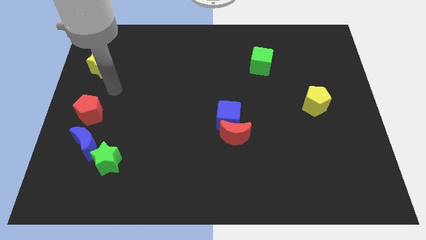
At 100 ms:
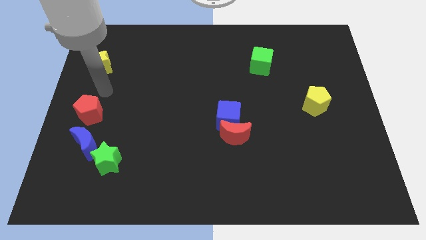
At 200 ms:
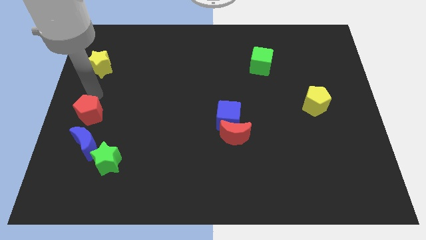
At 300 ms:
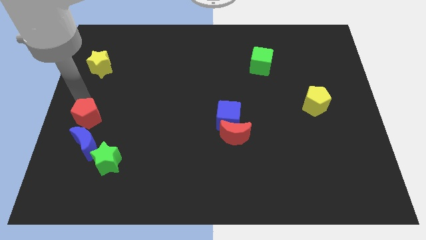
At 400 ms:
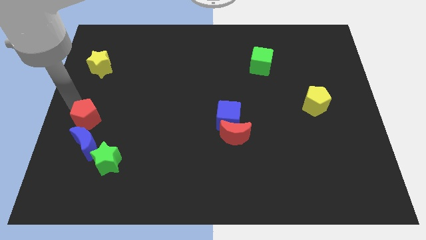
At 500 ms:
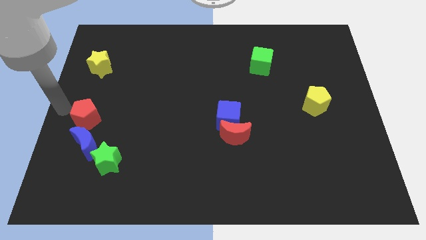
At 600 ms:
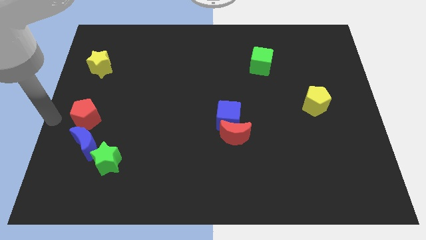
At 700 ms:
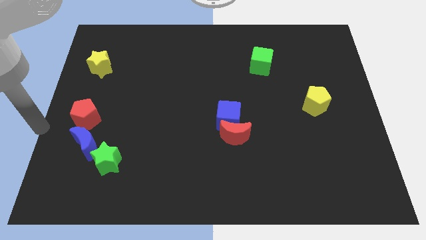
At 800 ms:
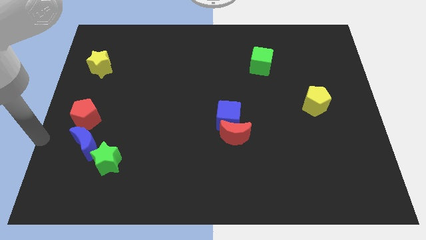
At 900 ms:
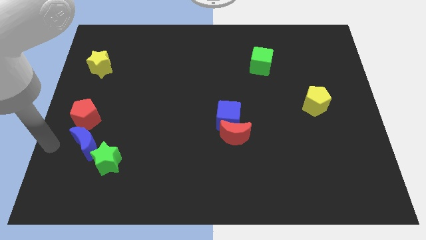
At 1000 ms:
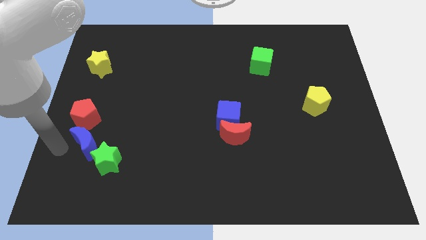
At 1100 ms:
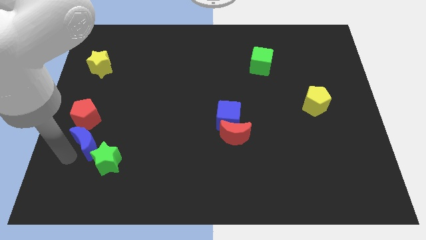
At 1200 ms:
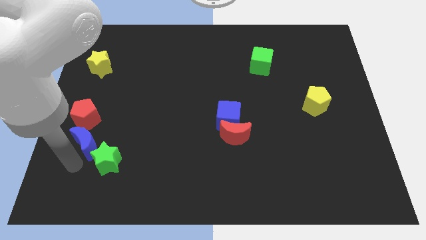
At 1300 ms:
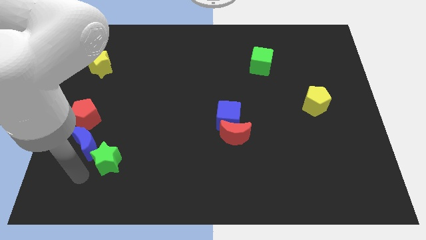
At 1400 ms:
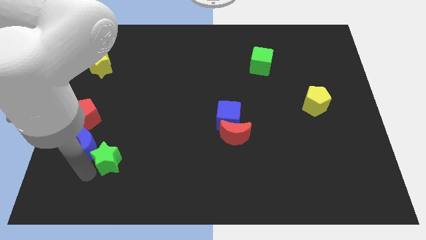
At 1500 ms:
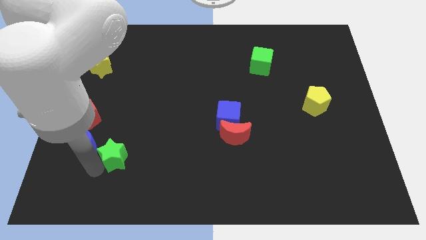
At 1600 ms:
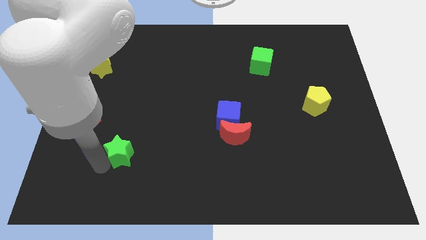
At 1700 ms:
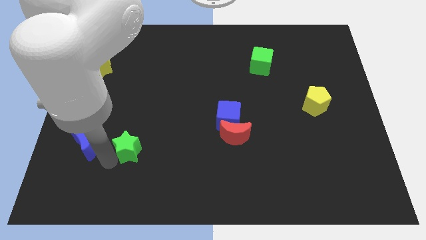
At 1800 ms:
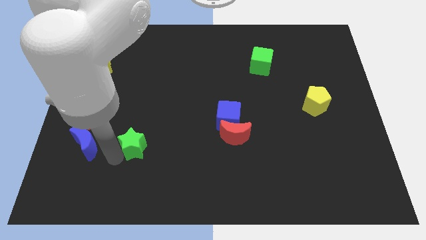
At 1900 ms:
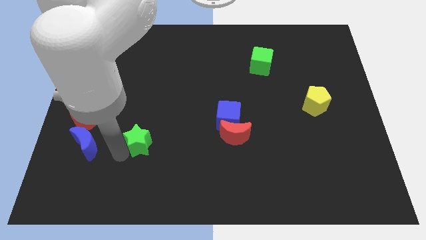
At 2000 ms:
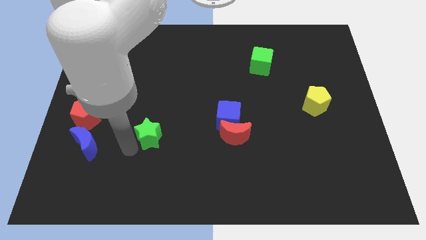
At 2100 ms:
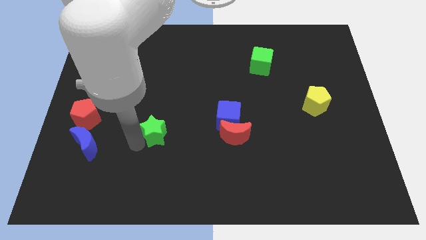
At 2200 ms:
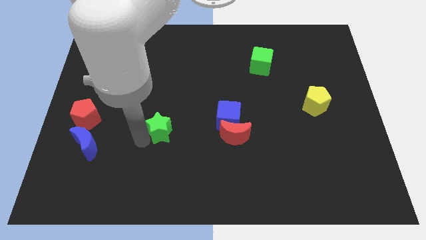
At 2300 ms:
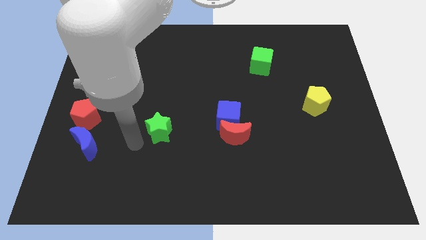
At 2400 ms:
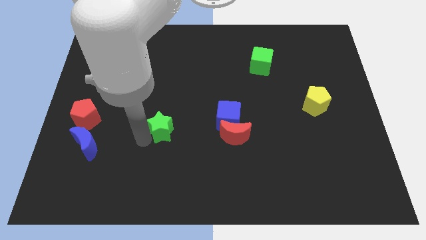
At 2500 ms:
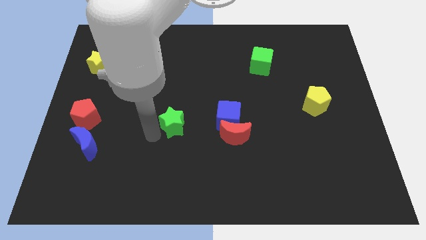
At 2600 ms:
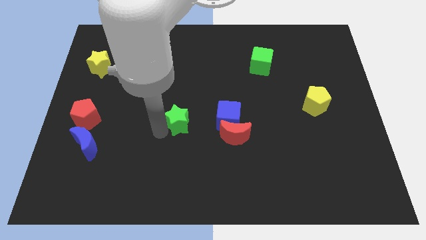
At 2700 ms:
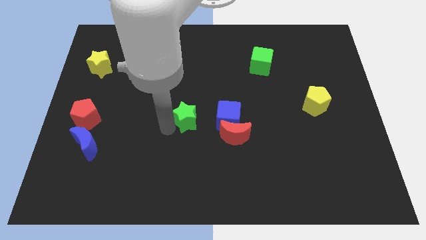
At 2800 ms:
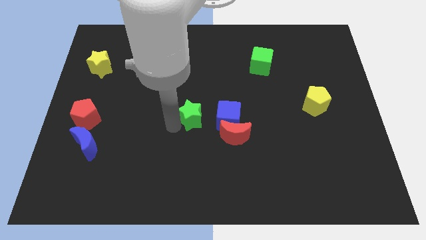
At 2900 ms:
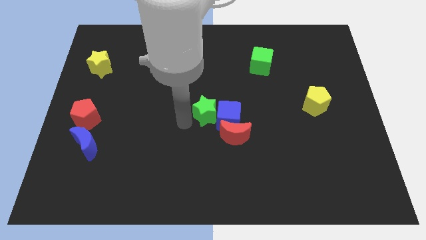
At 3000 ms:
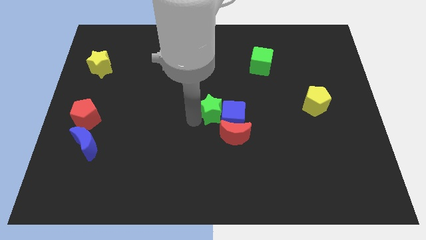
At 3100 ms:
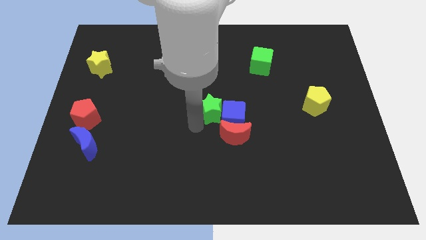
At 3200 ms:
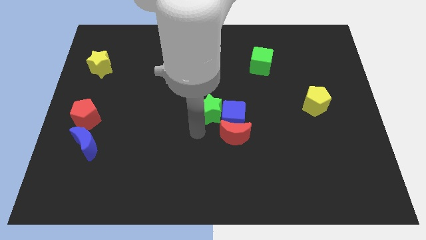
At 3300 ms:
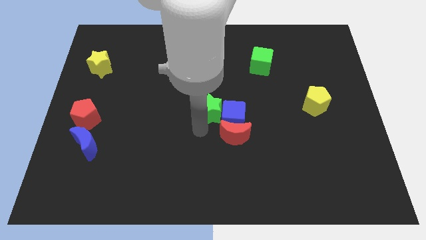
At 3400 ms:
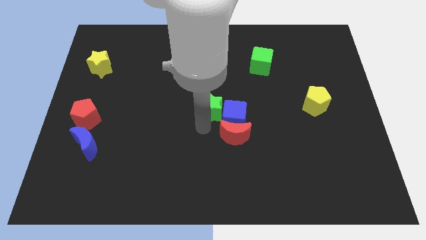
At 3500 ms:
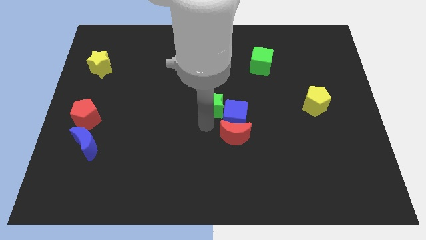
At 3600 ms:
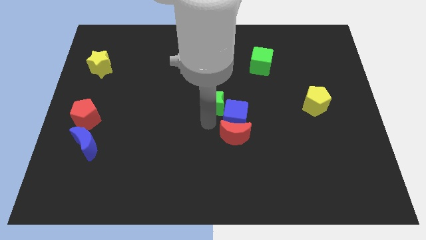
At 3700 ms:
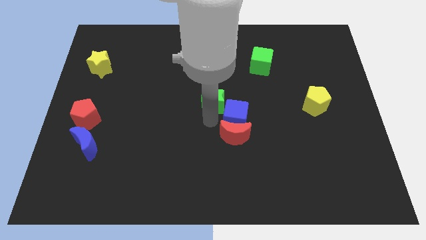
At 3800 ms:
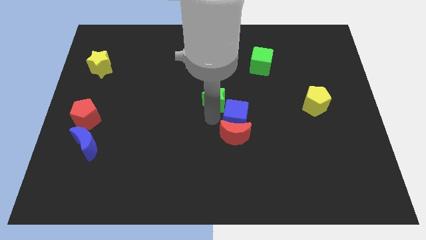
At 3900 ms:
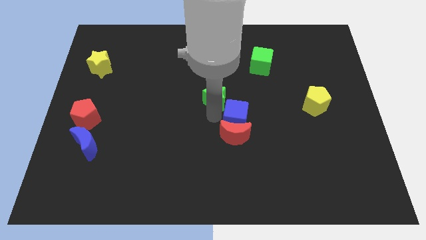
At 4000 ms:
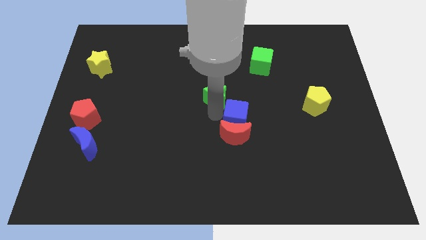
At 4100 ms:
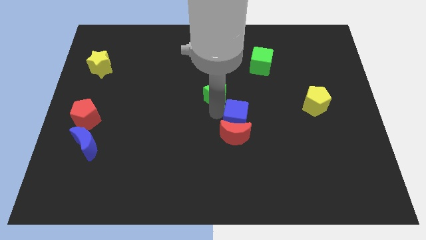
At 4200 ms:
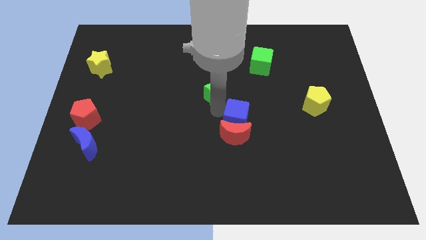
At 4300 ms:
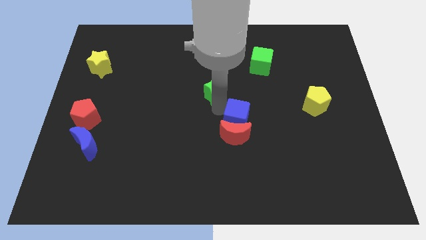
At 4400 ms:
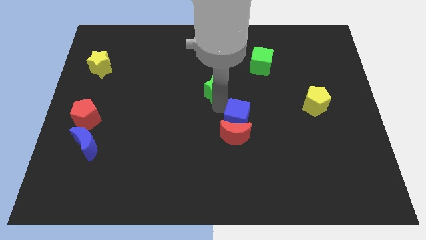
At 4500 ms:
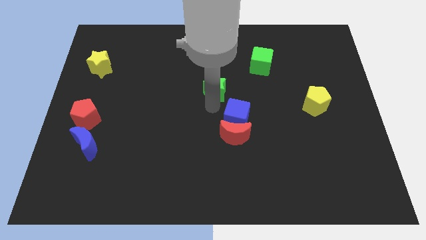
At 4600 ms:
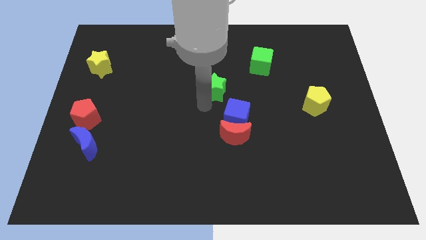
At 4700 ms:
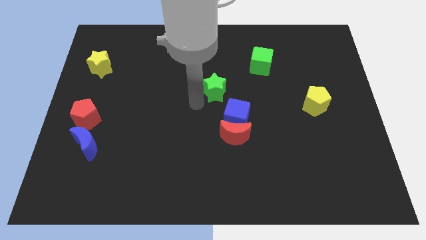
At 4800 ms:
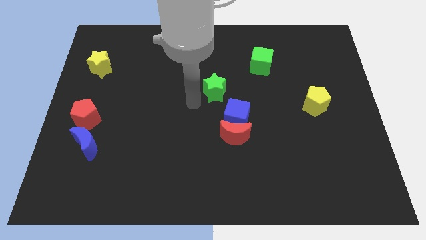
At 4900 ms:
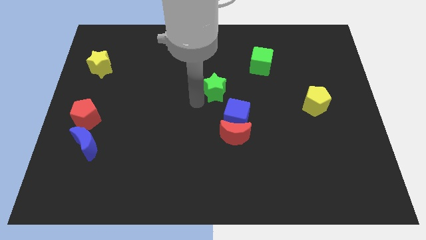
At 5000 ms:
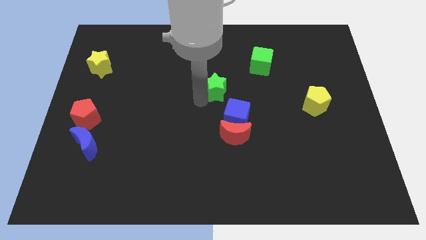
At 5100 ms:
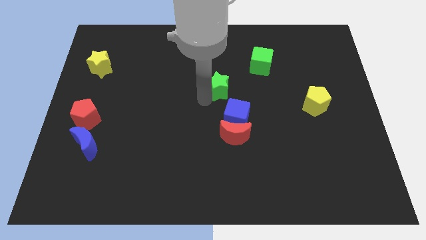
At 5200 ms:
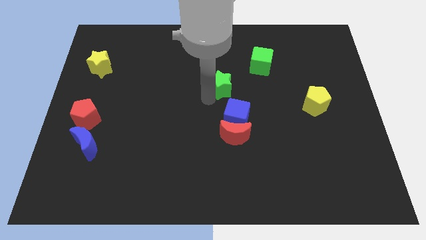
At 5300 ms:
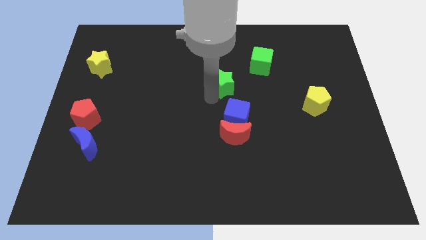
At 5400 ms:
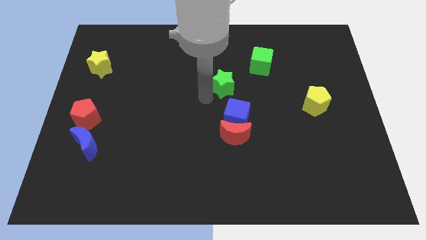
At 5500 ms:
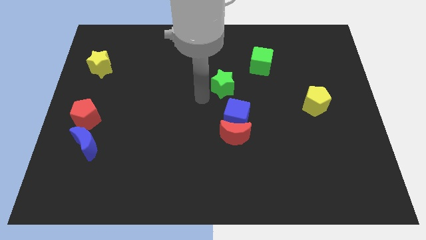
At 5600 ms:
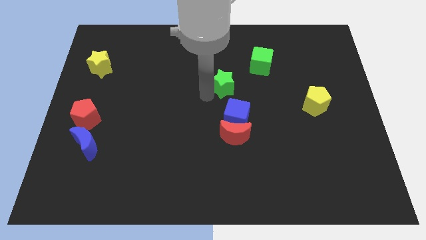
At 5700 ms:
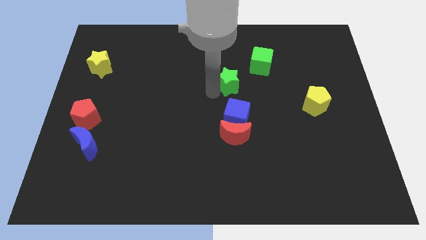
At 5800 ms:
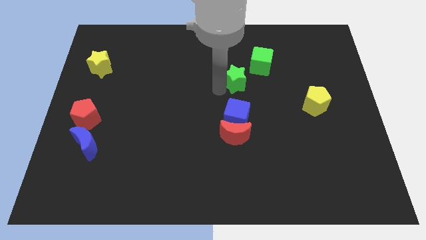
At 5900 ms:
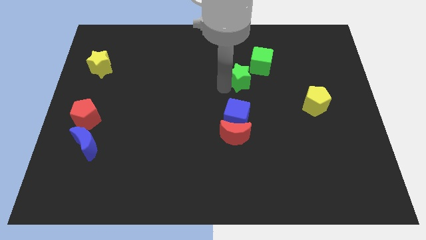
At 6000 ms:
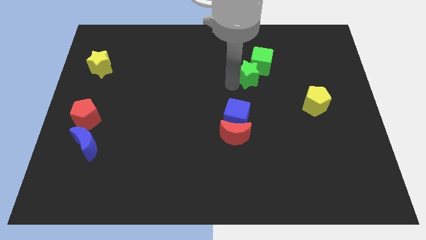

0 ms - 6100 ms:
put the green star towards the green cube
